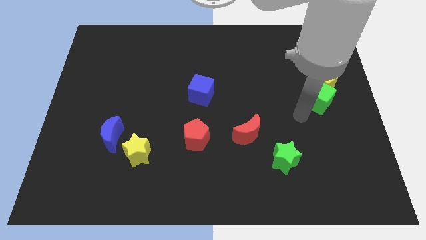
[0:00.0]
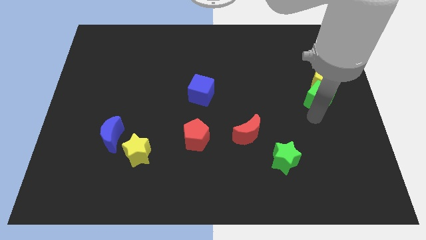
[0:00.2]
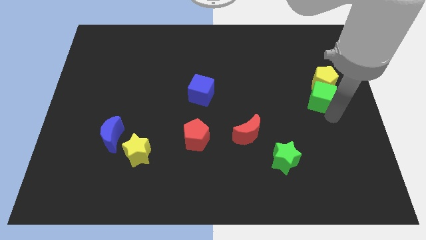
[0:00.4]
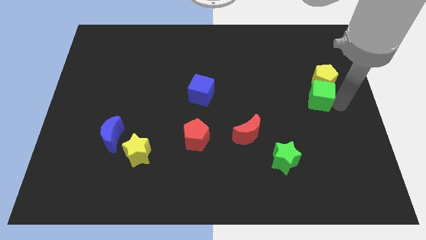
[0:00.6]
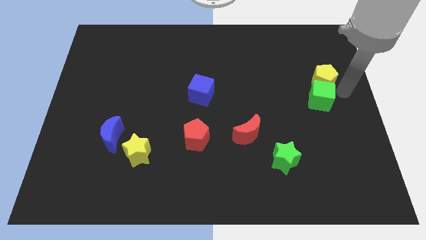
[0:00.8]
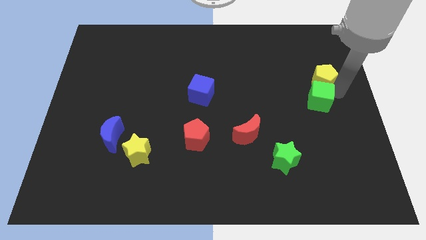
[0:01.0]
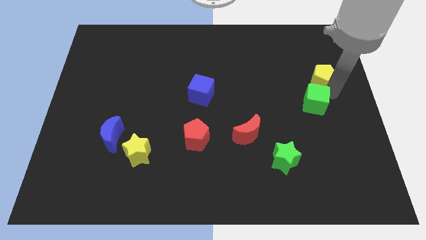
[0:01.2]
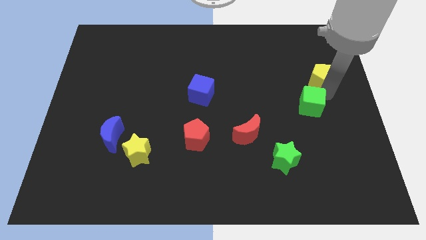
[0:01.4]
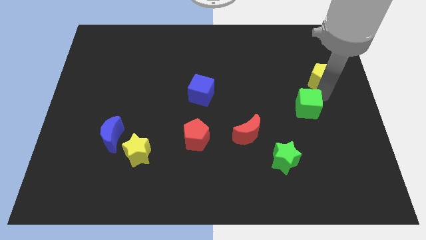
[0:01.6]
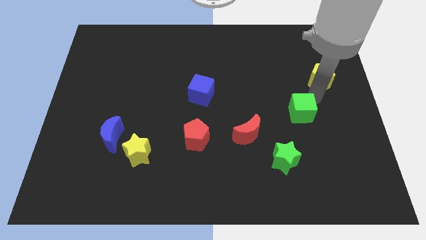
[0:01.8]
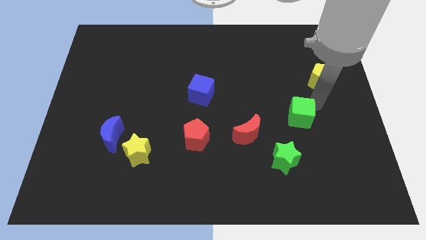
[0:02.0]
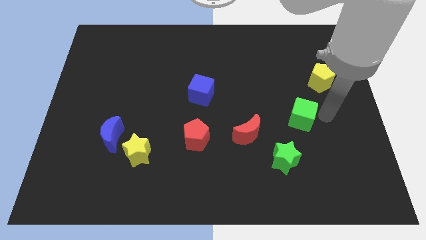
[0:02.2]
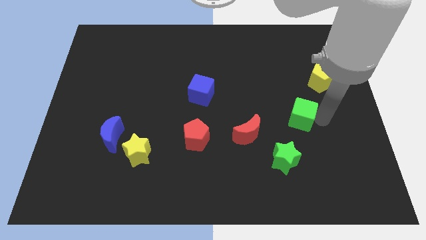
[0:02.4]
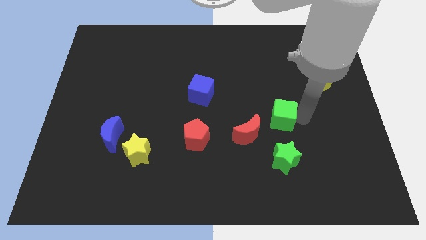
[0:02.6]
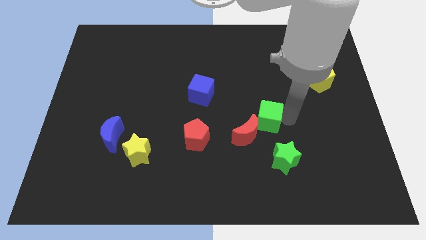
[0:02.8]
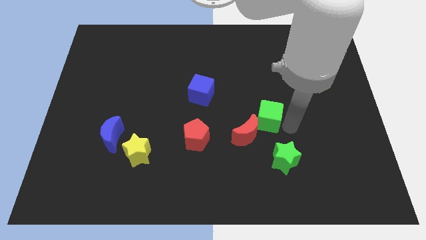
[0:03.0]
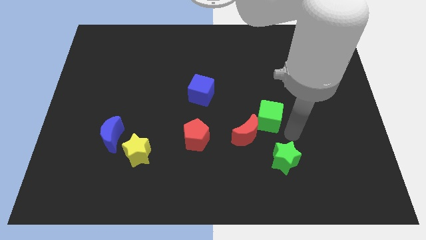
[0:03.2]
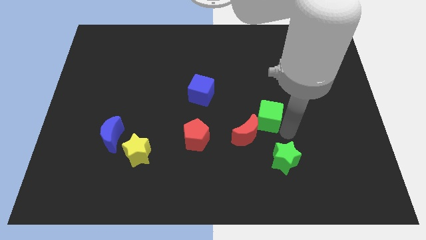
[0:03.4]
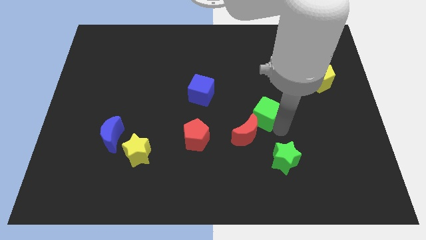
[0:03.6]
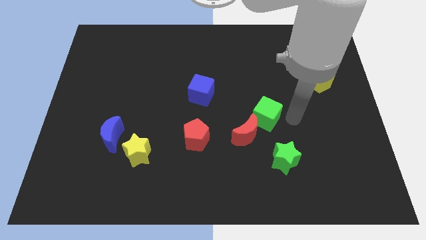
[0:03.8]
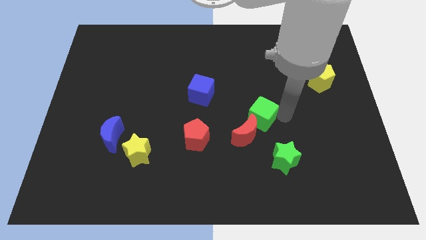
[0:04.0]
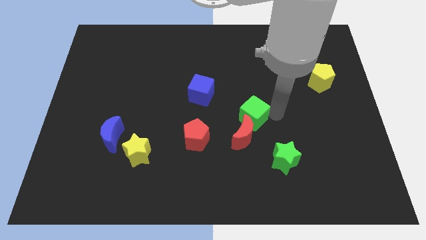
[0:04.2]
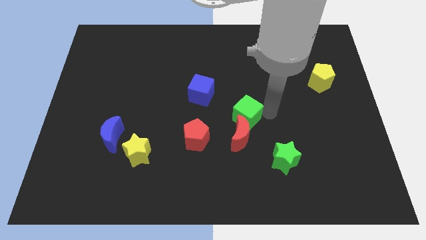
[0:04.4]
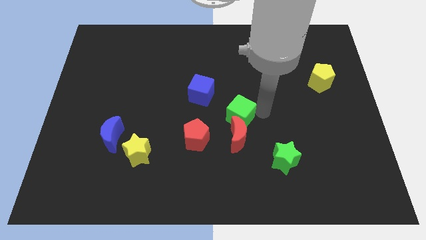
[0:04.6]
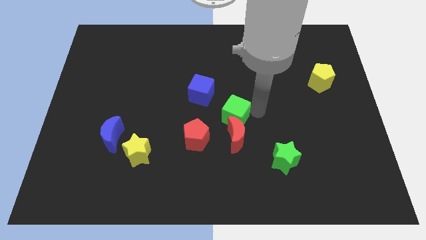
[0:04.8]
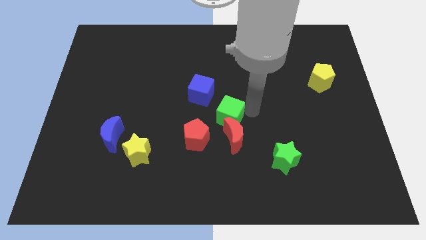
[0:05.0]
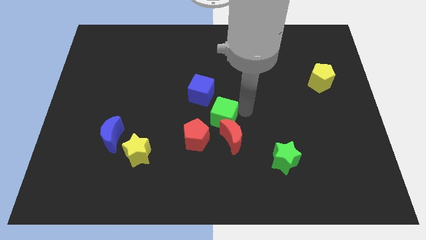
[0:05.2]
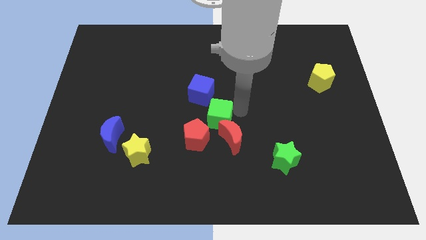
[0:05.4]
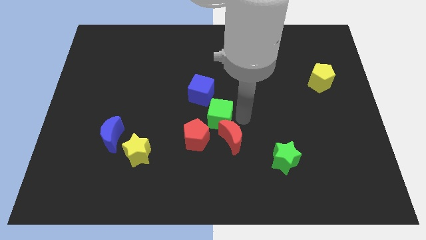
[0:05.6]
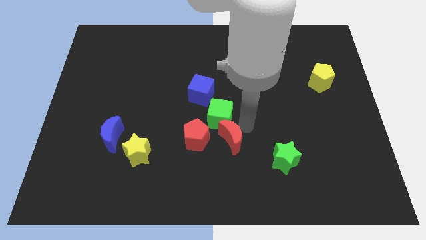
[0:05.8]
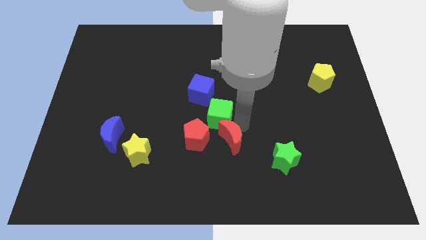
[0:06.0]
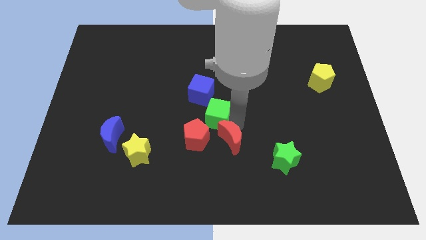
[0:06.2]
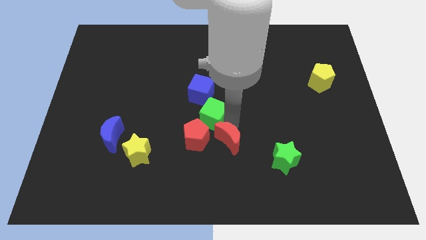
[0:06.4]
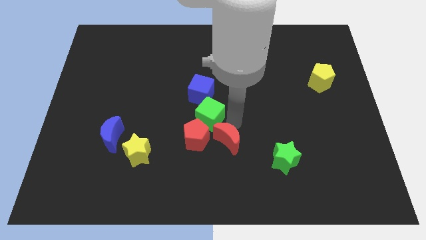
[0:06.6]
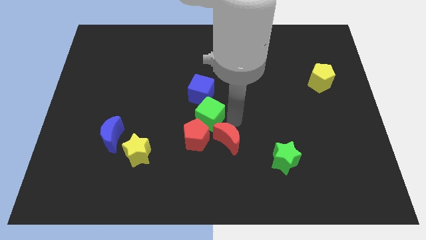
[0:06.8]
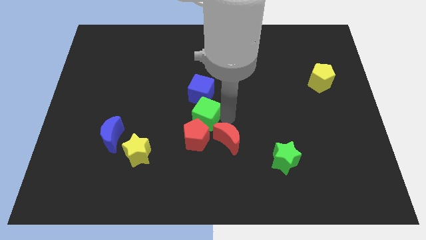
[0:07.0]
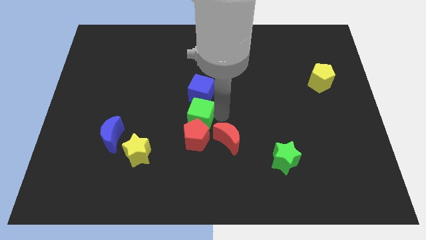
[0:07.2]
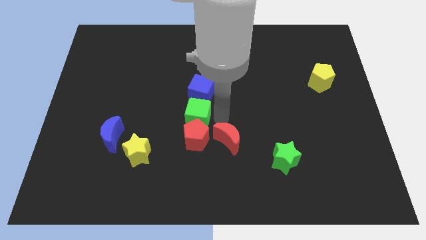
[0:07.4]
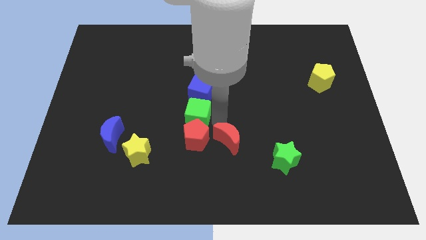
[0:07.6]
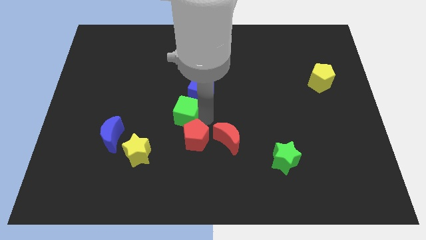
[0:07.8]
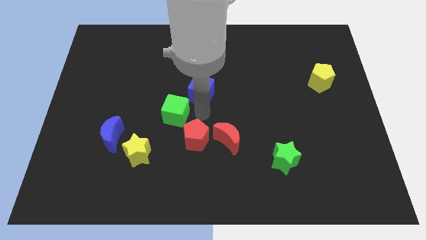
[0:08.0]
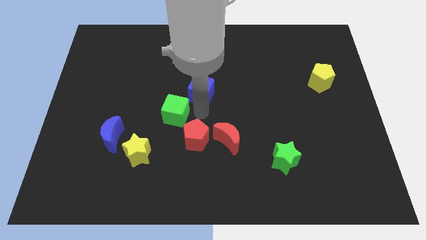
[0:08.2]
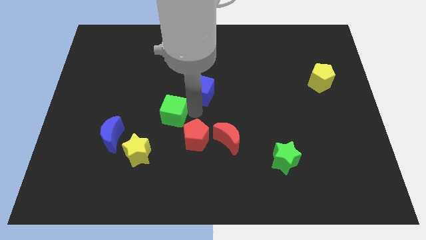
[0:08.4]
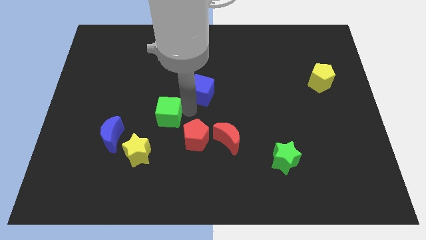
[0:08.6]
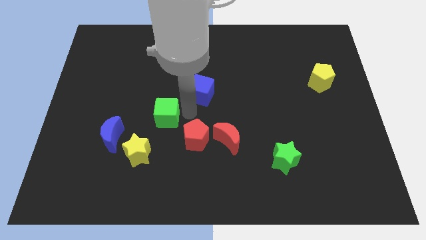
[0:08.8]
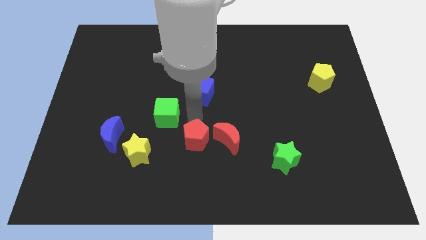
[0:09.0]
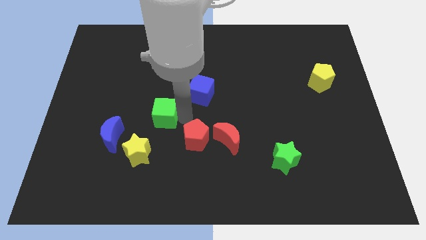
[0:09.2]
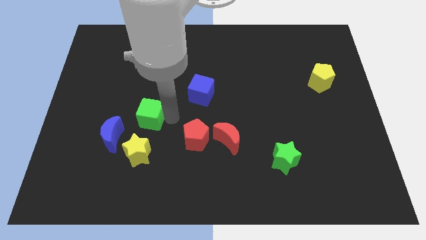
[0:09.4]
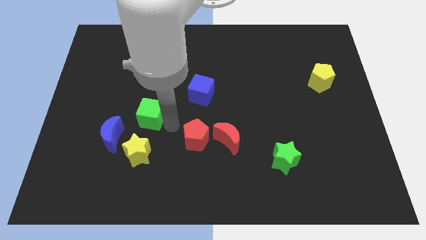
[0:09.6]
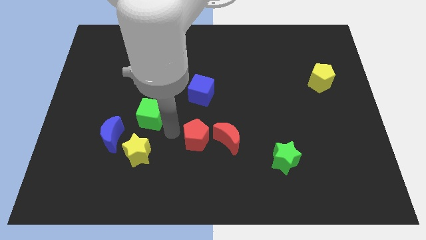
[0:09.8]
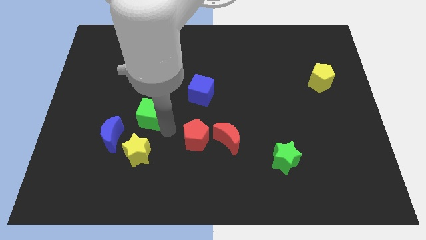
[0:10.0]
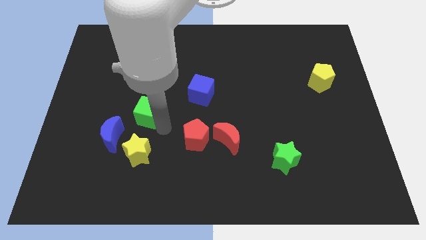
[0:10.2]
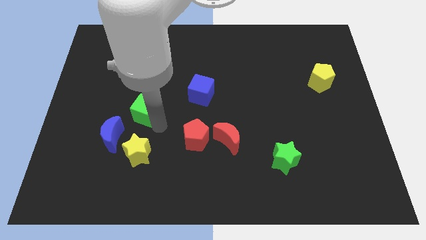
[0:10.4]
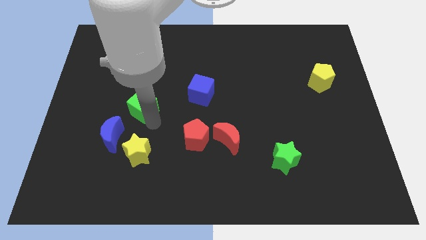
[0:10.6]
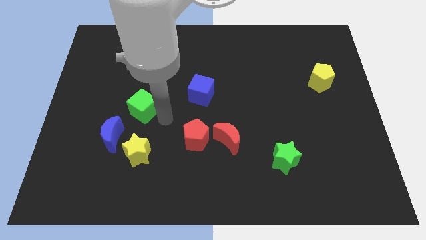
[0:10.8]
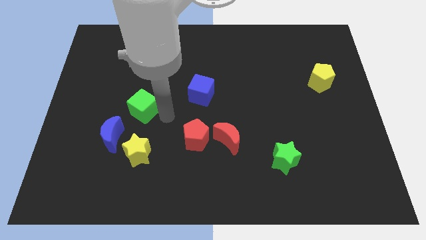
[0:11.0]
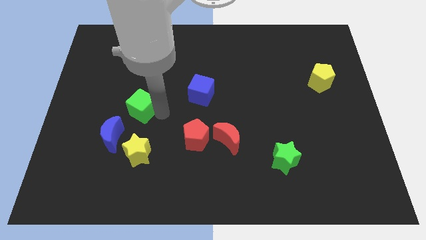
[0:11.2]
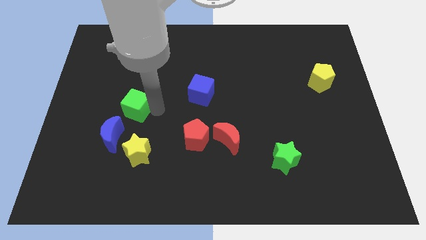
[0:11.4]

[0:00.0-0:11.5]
slide the green cube to the top side of the blue moon

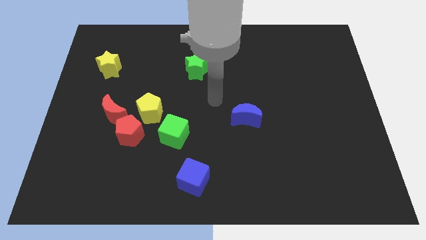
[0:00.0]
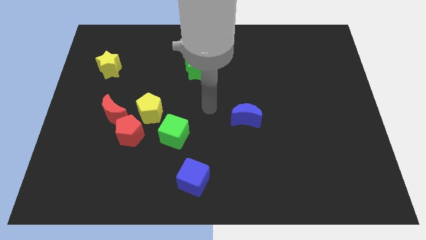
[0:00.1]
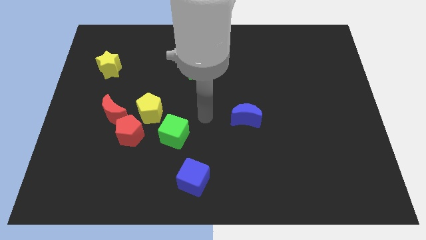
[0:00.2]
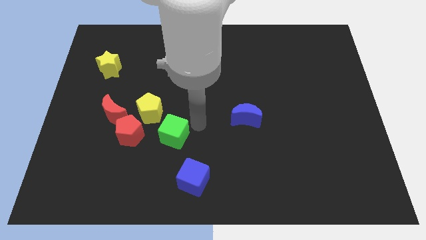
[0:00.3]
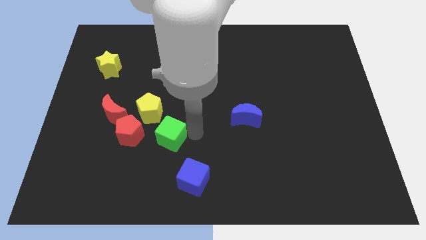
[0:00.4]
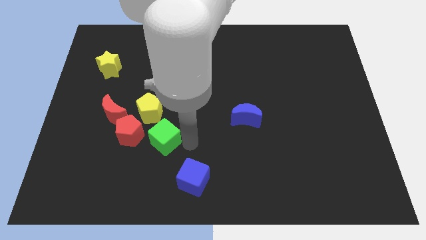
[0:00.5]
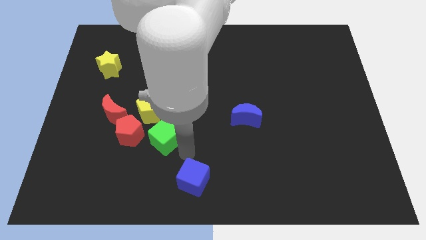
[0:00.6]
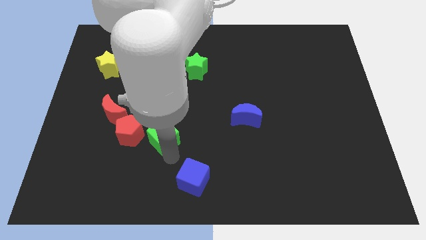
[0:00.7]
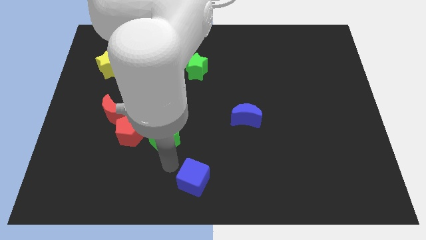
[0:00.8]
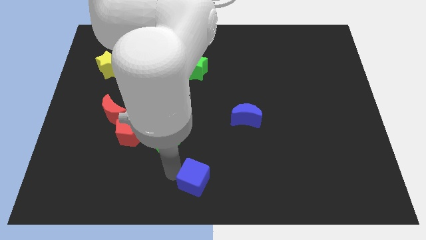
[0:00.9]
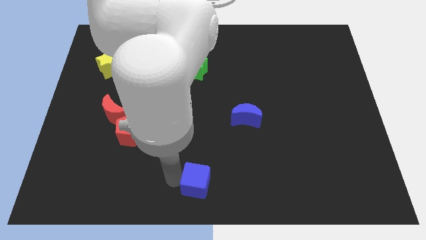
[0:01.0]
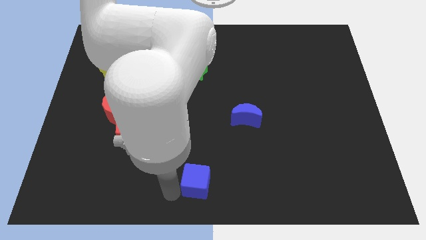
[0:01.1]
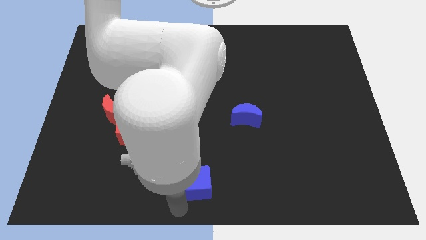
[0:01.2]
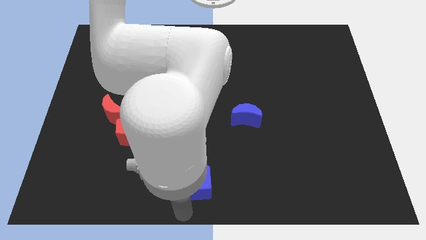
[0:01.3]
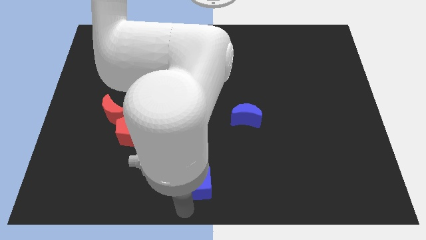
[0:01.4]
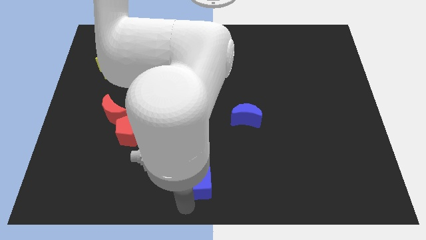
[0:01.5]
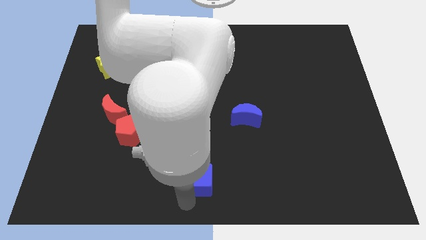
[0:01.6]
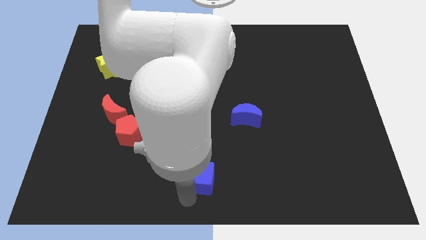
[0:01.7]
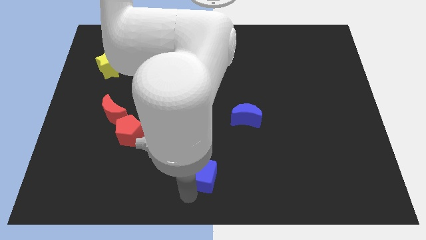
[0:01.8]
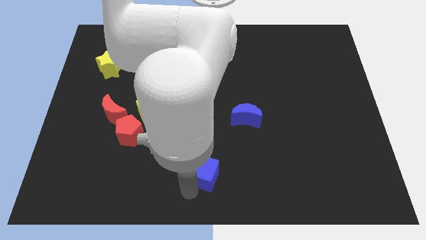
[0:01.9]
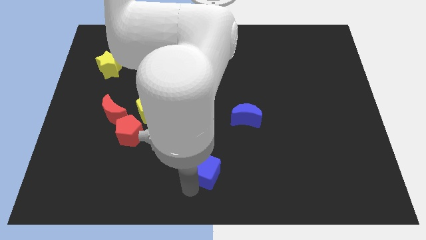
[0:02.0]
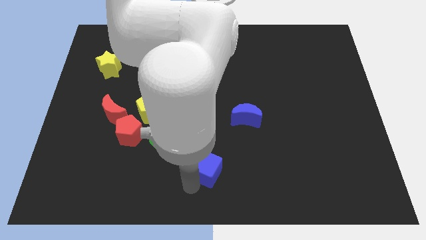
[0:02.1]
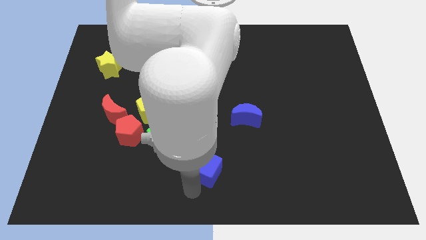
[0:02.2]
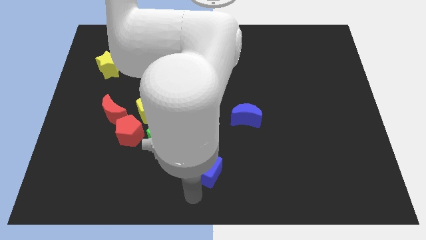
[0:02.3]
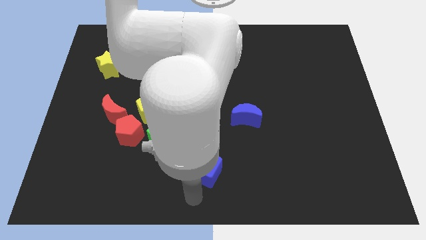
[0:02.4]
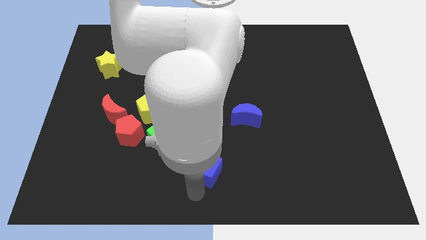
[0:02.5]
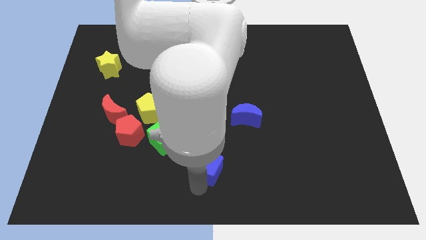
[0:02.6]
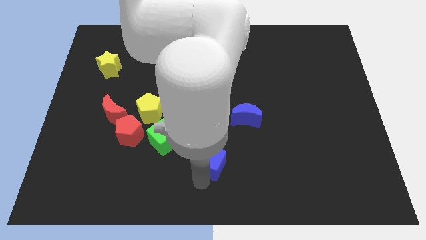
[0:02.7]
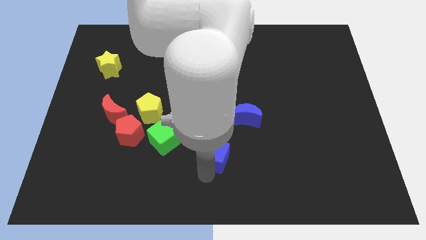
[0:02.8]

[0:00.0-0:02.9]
move the blue cube to the right side of the green cube
